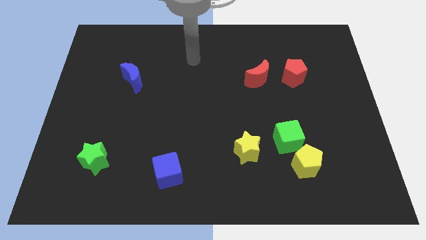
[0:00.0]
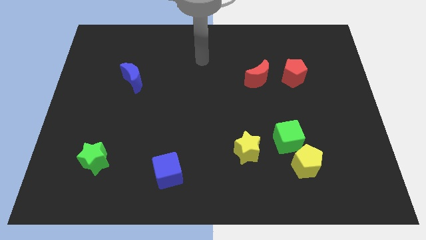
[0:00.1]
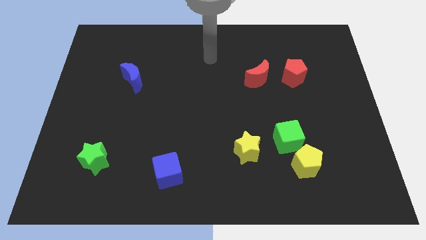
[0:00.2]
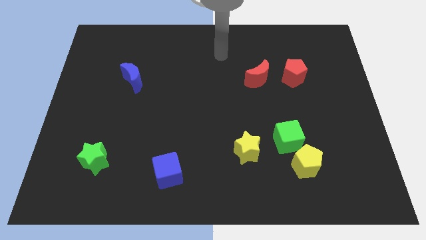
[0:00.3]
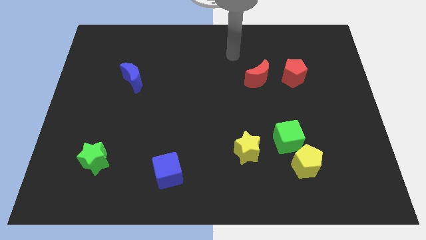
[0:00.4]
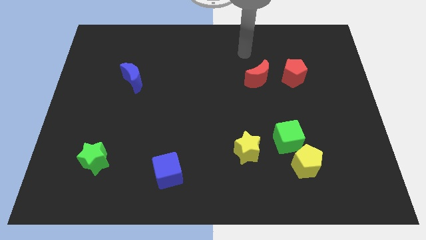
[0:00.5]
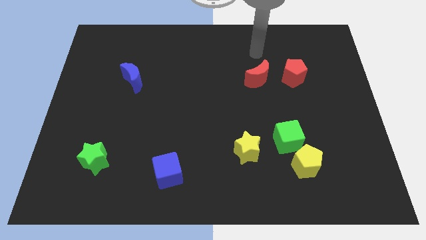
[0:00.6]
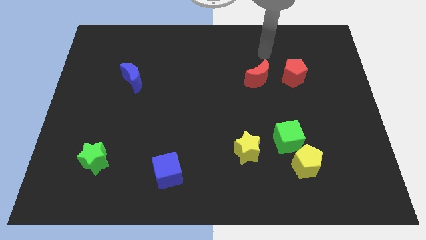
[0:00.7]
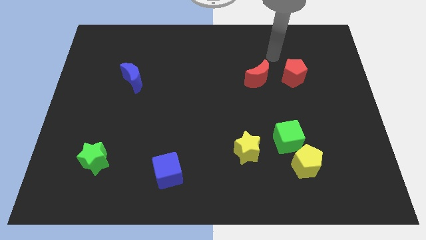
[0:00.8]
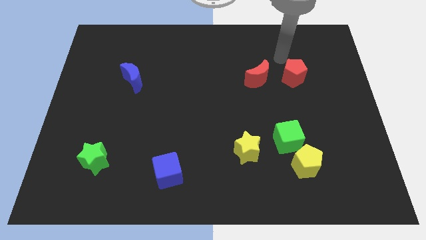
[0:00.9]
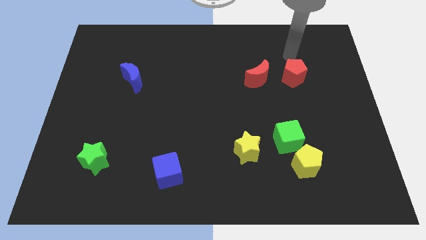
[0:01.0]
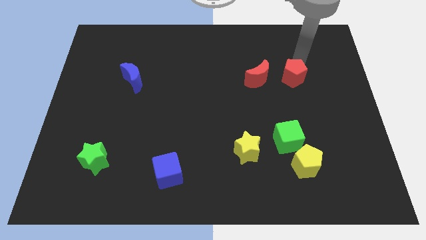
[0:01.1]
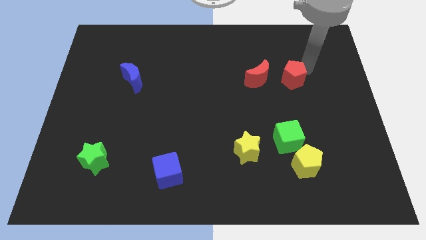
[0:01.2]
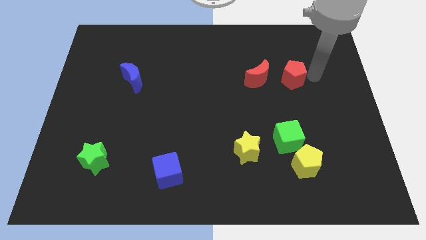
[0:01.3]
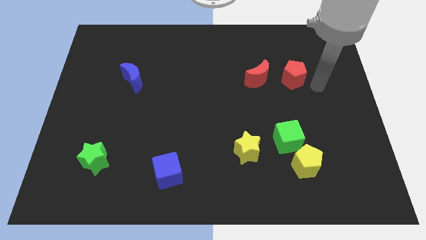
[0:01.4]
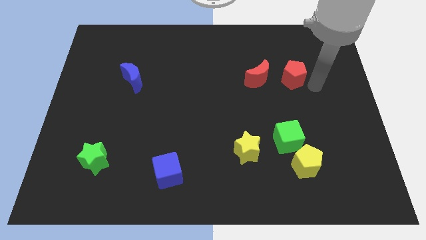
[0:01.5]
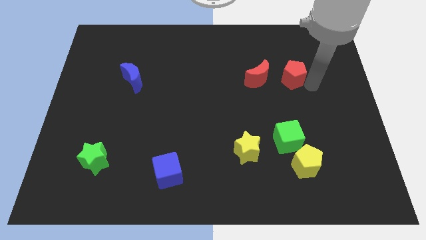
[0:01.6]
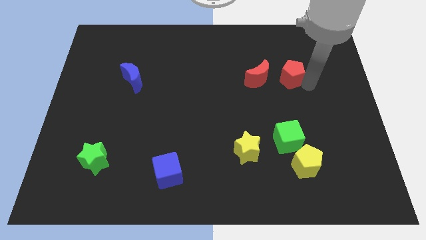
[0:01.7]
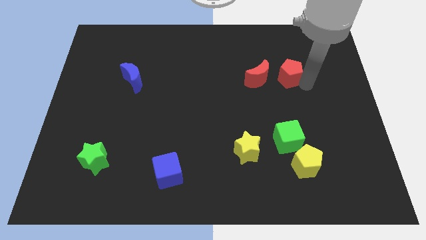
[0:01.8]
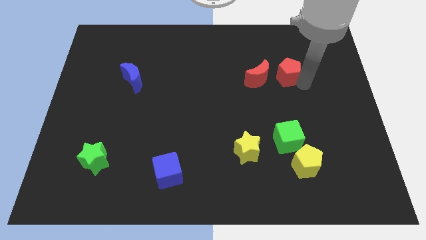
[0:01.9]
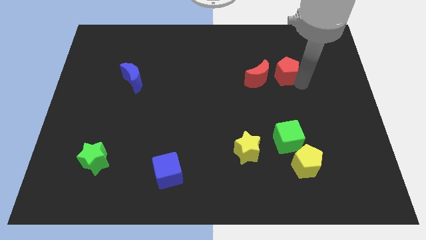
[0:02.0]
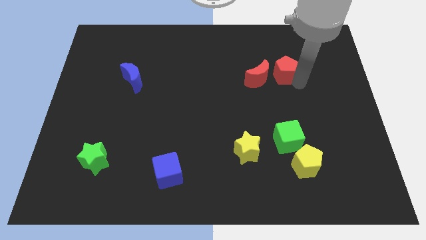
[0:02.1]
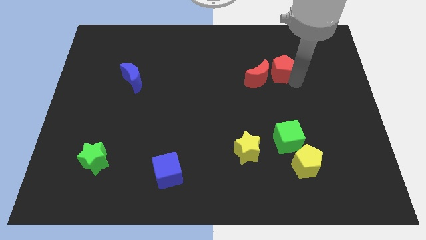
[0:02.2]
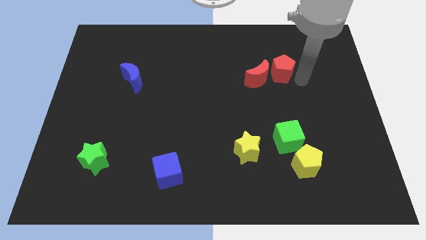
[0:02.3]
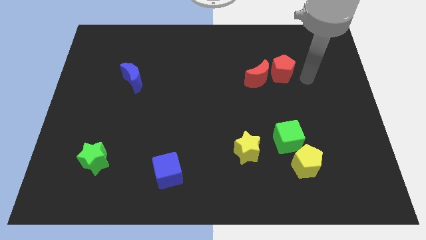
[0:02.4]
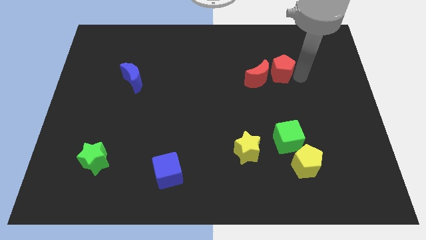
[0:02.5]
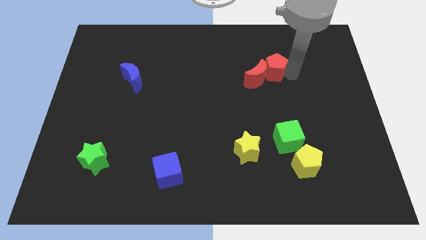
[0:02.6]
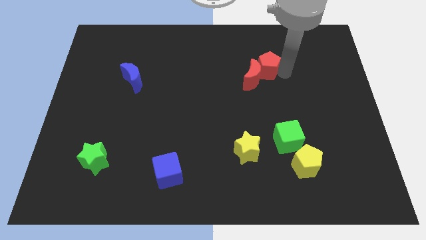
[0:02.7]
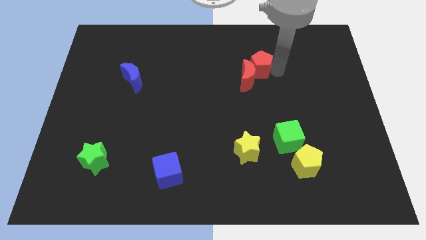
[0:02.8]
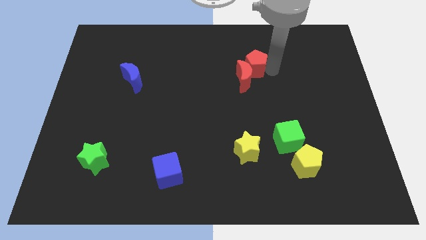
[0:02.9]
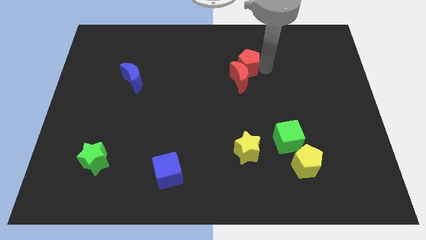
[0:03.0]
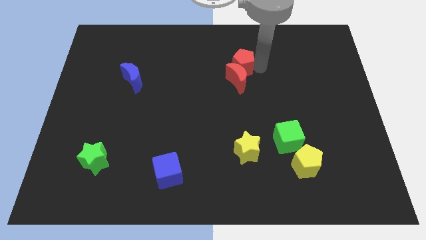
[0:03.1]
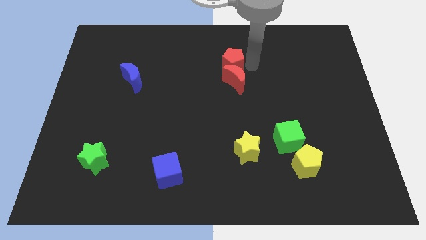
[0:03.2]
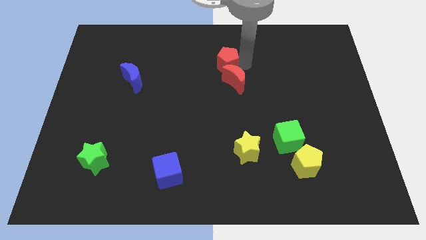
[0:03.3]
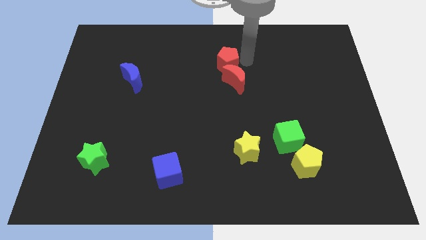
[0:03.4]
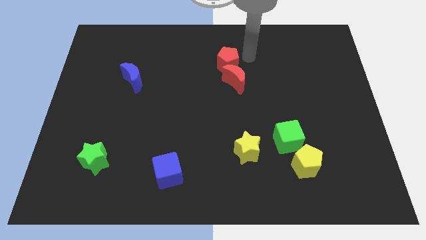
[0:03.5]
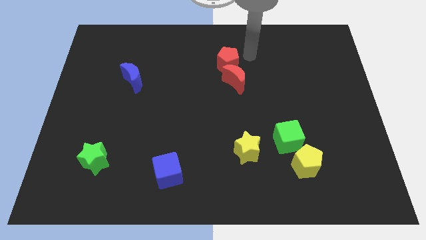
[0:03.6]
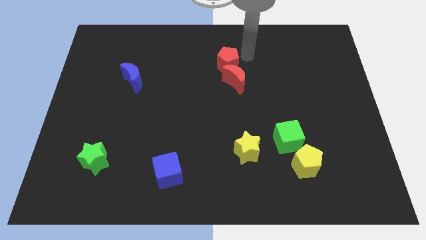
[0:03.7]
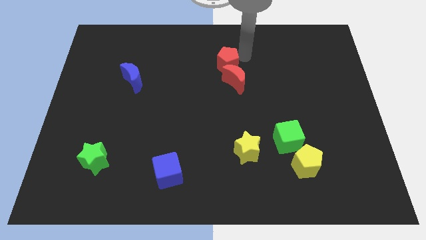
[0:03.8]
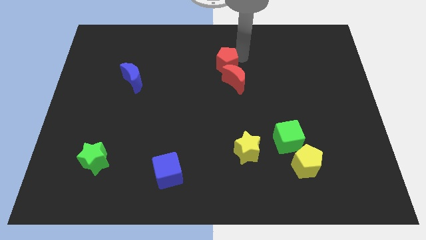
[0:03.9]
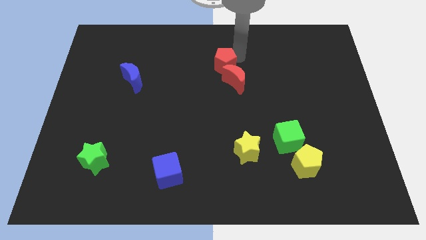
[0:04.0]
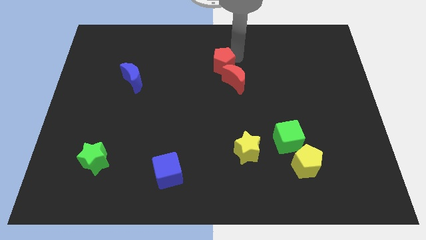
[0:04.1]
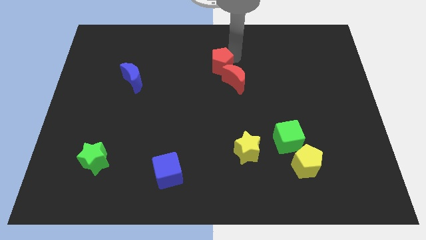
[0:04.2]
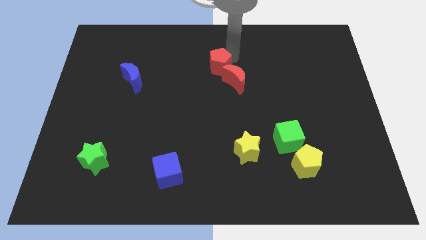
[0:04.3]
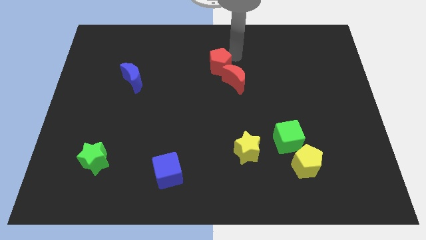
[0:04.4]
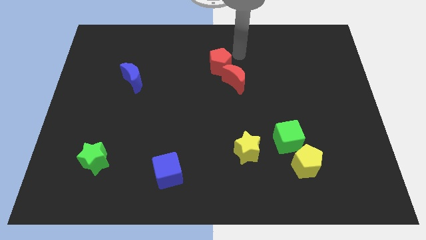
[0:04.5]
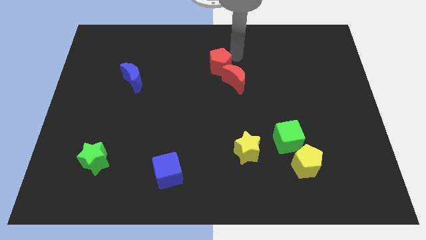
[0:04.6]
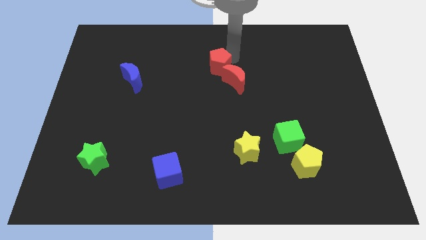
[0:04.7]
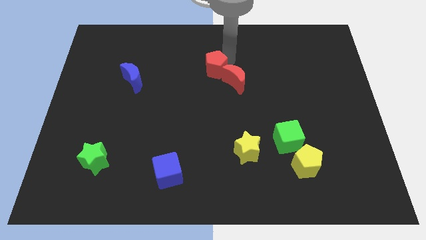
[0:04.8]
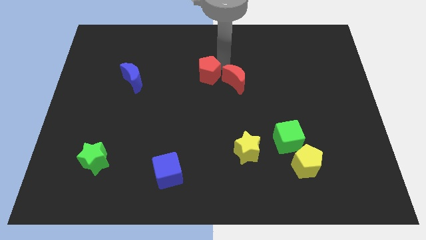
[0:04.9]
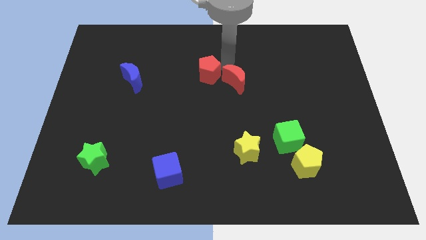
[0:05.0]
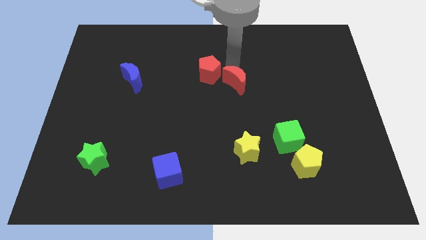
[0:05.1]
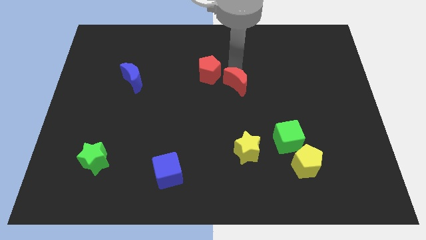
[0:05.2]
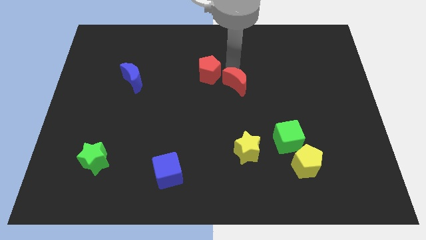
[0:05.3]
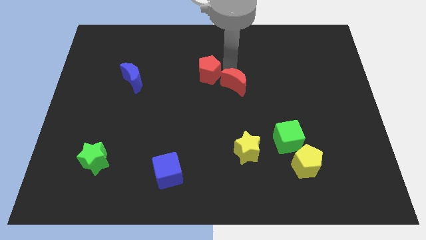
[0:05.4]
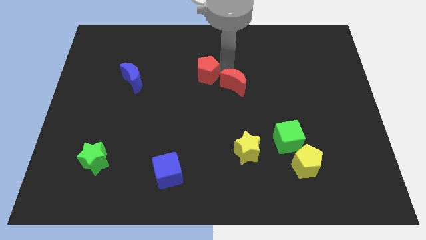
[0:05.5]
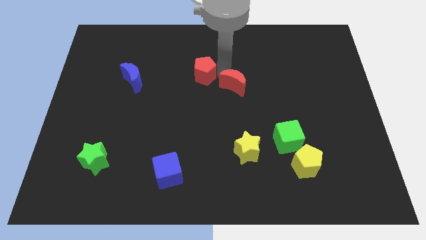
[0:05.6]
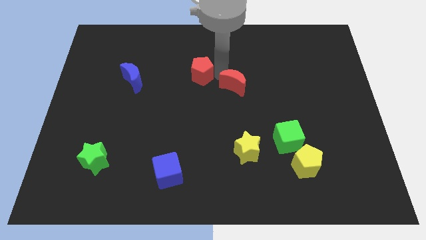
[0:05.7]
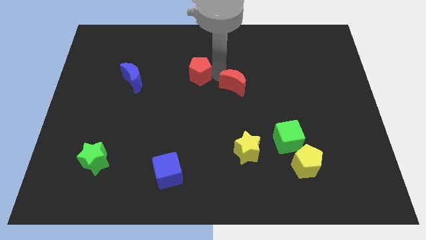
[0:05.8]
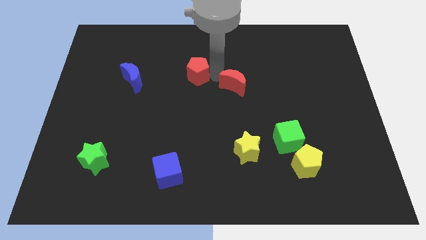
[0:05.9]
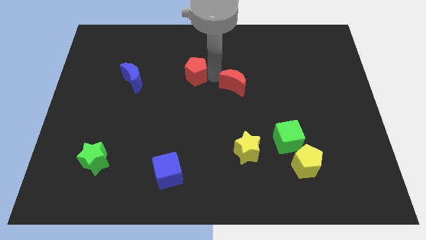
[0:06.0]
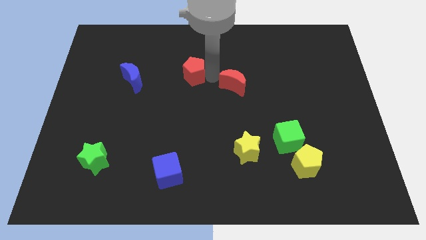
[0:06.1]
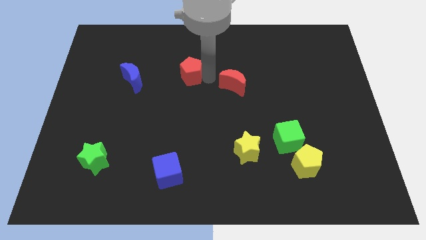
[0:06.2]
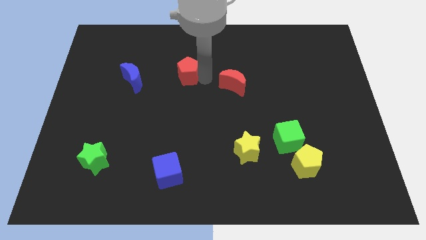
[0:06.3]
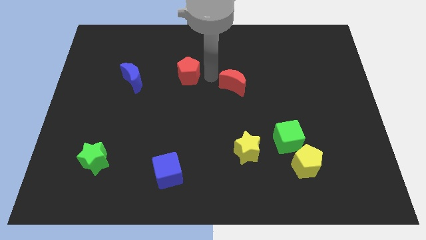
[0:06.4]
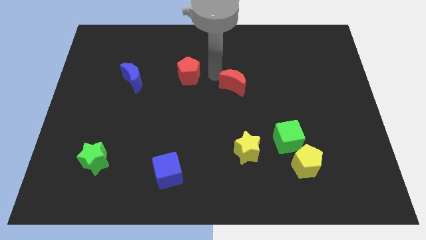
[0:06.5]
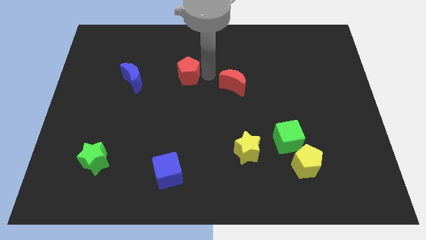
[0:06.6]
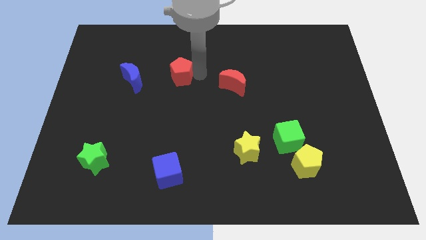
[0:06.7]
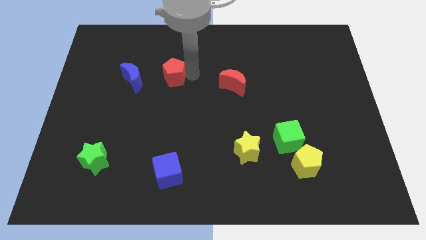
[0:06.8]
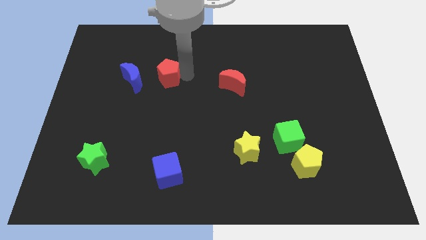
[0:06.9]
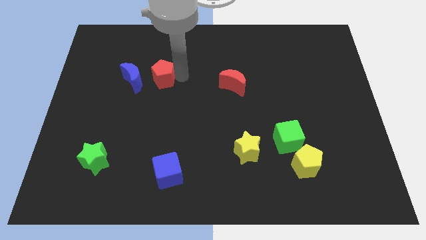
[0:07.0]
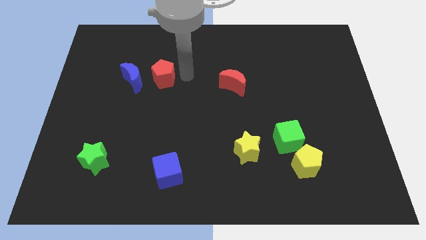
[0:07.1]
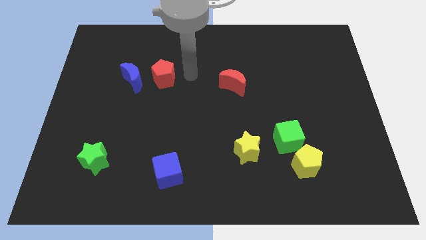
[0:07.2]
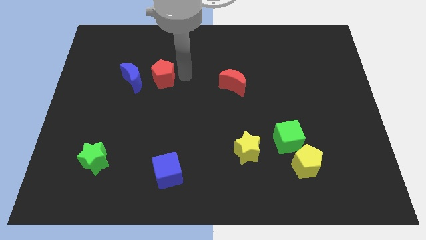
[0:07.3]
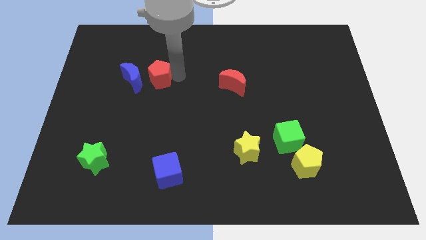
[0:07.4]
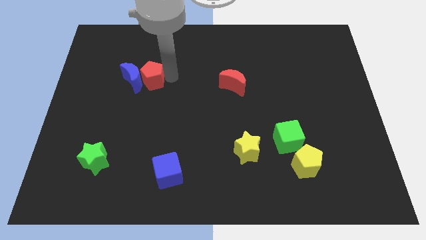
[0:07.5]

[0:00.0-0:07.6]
push the red pentagon to the blue moon
